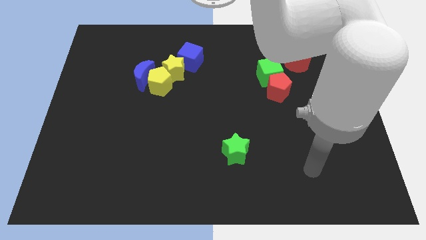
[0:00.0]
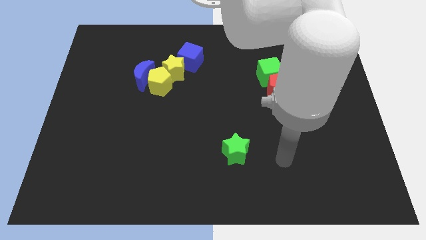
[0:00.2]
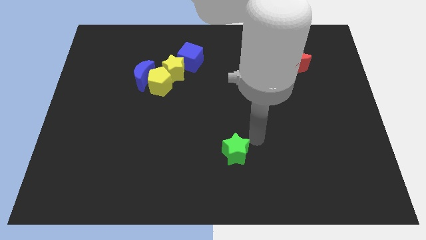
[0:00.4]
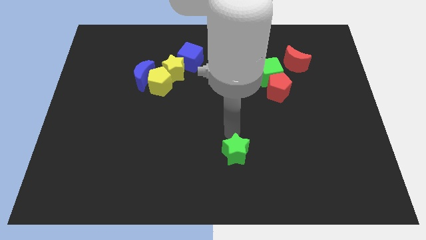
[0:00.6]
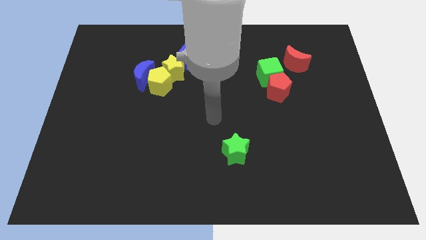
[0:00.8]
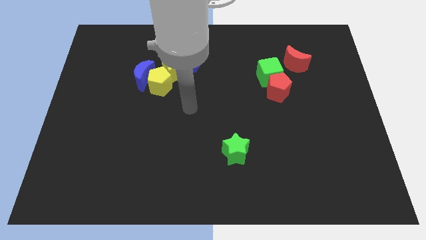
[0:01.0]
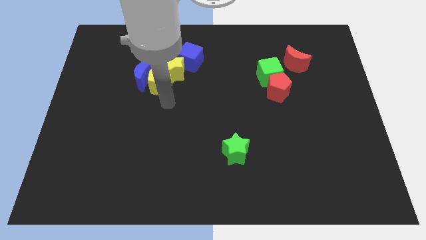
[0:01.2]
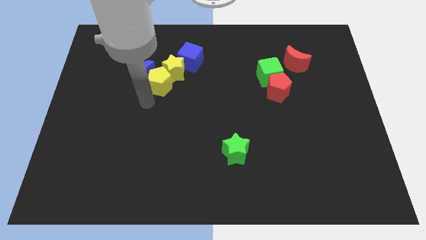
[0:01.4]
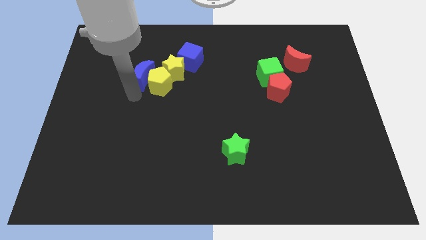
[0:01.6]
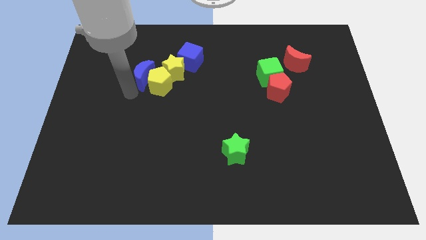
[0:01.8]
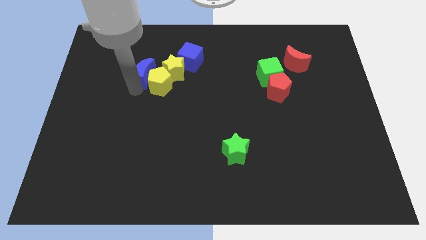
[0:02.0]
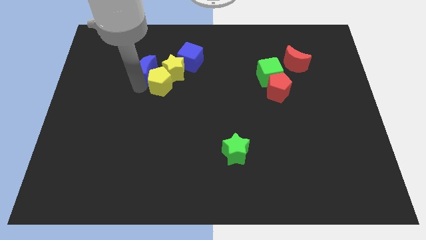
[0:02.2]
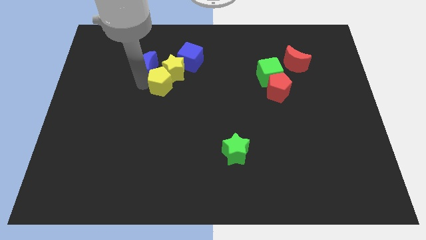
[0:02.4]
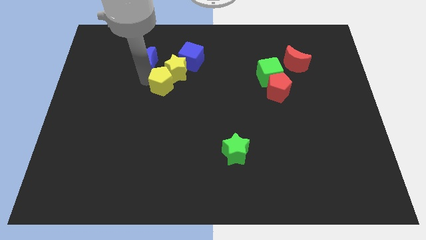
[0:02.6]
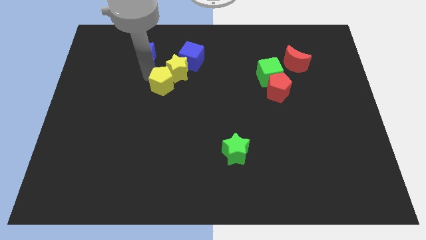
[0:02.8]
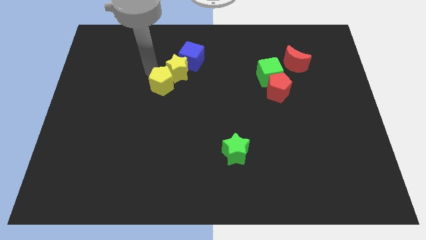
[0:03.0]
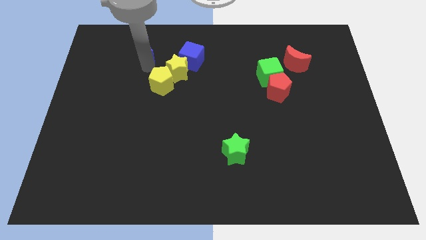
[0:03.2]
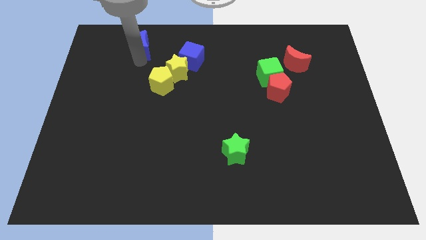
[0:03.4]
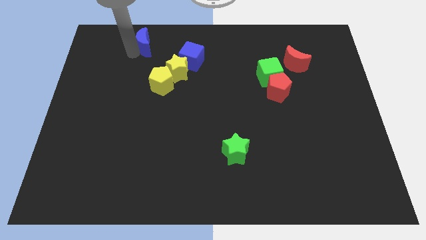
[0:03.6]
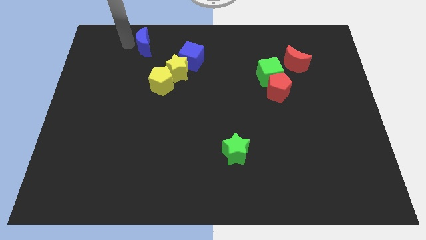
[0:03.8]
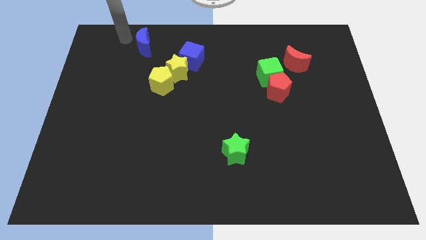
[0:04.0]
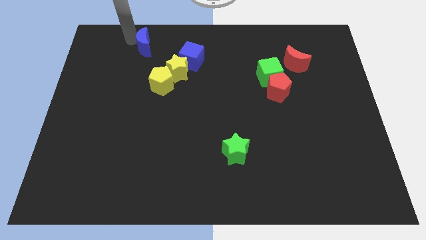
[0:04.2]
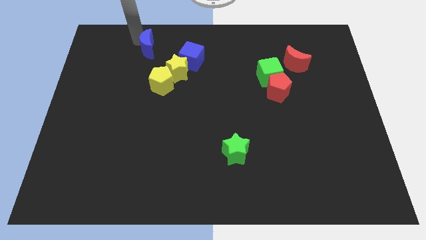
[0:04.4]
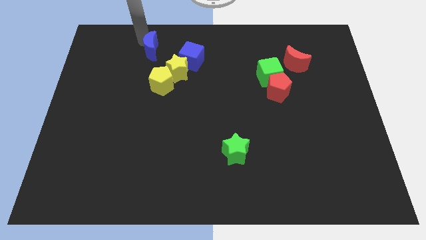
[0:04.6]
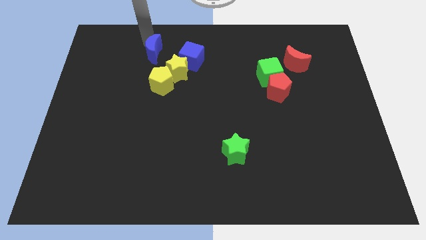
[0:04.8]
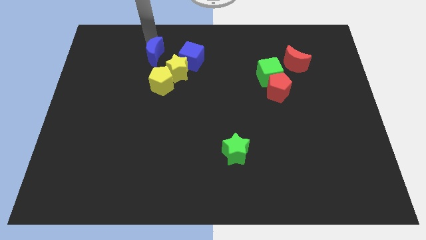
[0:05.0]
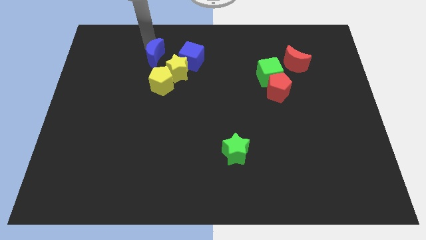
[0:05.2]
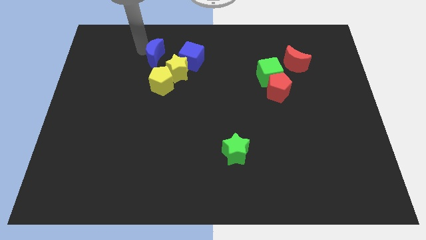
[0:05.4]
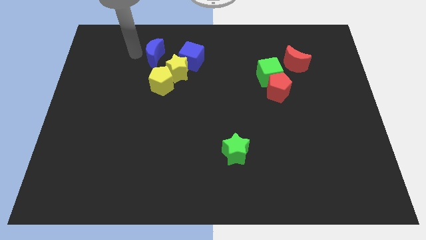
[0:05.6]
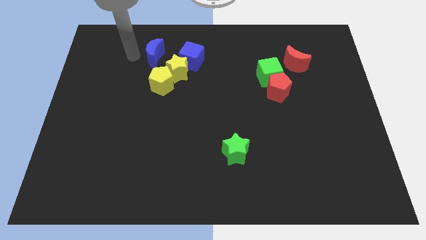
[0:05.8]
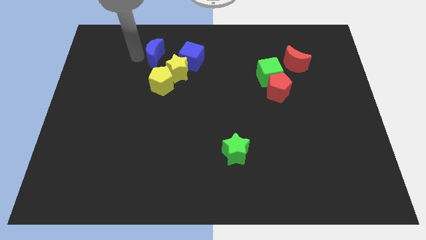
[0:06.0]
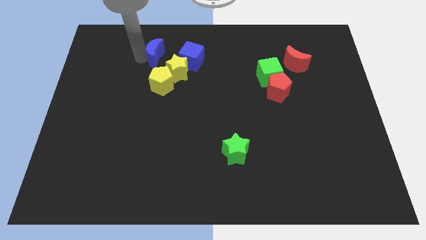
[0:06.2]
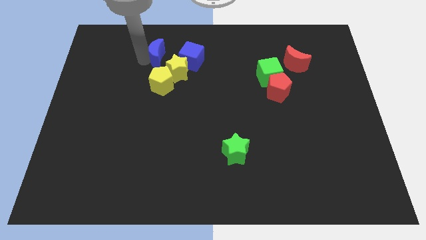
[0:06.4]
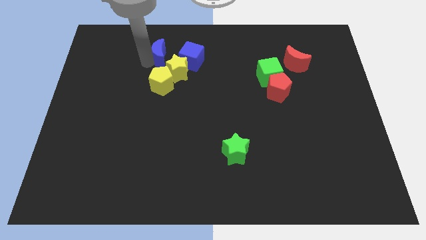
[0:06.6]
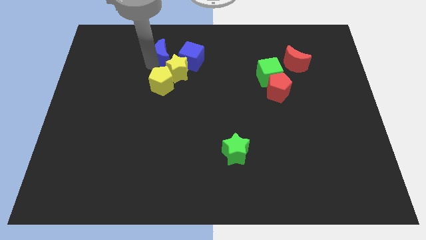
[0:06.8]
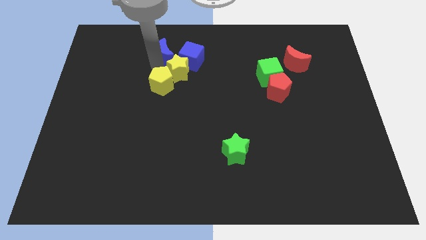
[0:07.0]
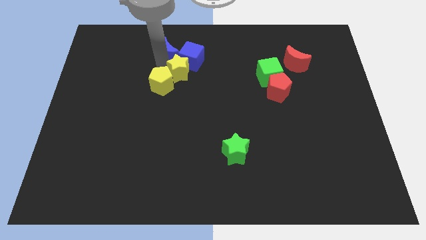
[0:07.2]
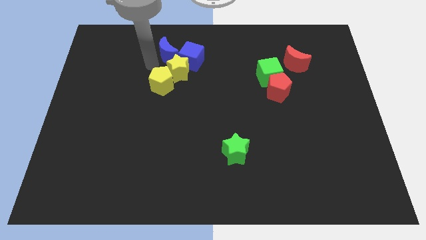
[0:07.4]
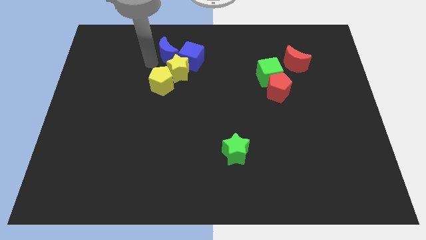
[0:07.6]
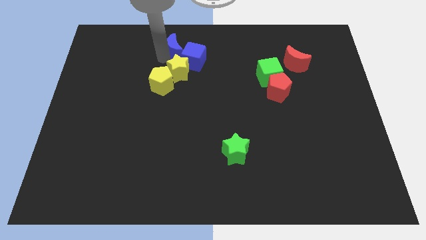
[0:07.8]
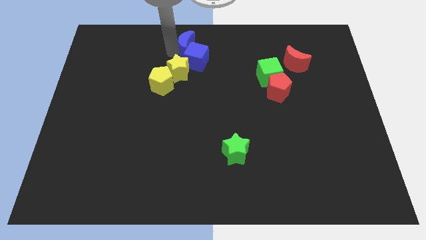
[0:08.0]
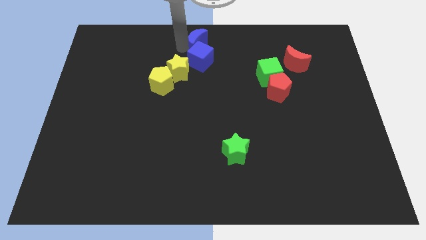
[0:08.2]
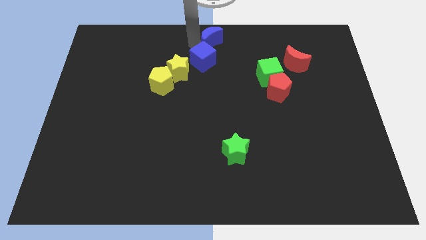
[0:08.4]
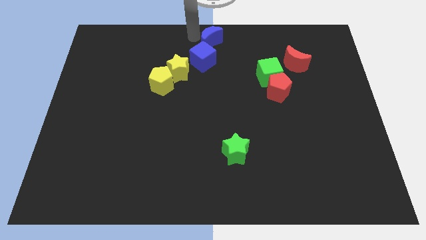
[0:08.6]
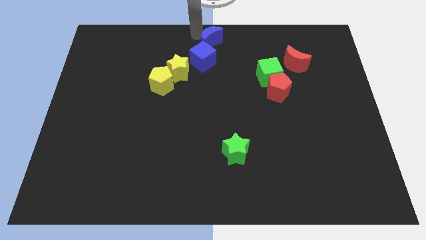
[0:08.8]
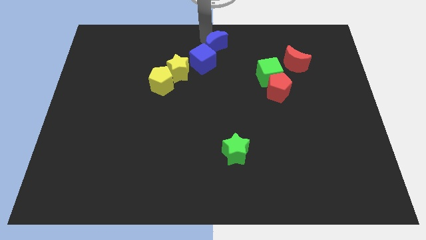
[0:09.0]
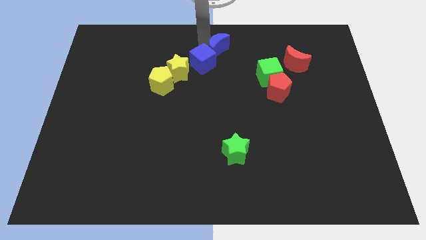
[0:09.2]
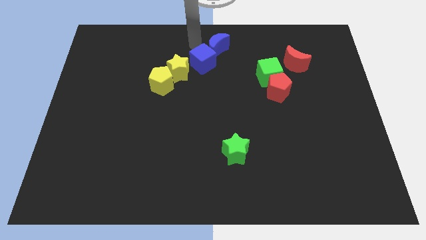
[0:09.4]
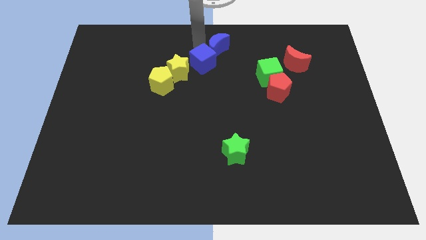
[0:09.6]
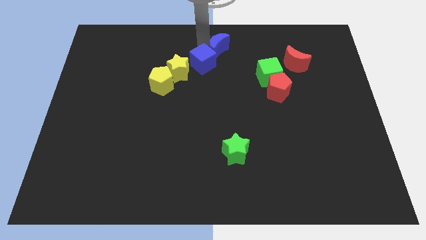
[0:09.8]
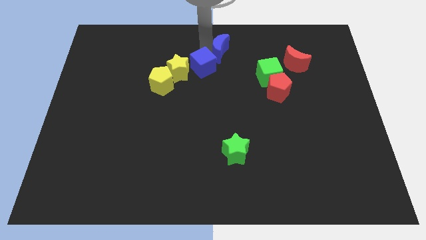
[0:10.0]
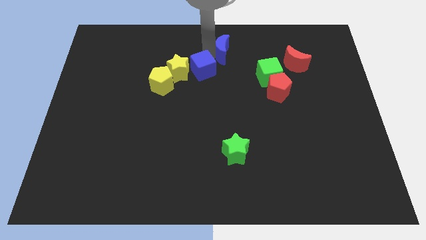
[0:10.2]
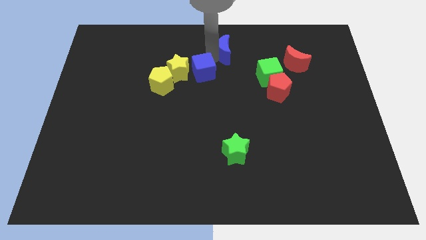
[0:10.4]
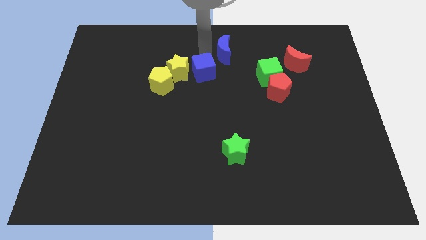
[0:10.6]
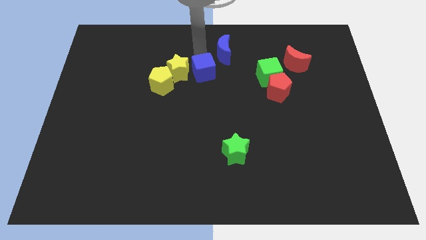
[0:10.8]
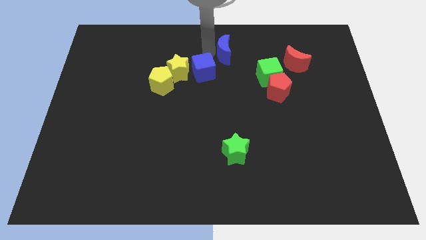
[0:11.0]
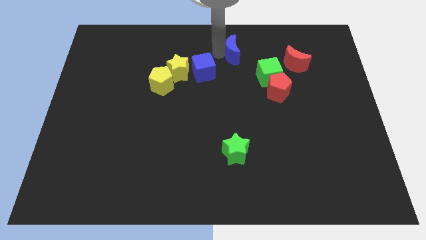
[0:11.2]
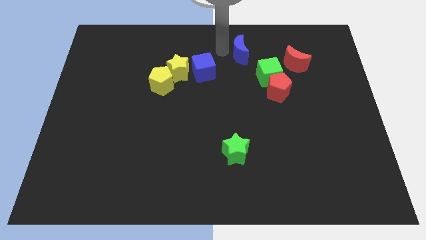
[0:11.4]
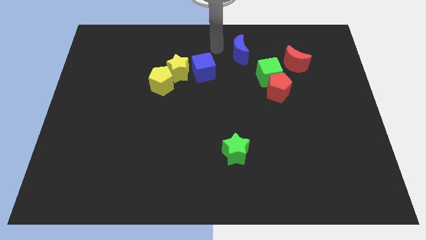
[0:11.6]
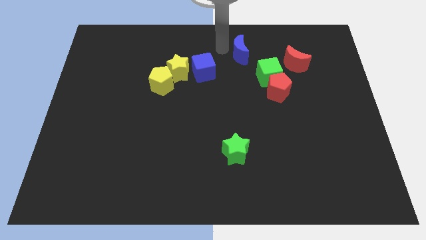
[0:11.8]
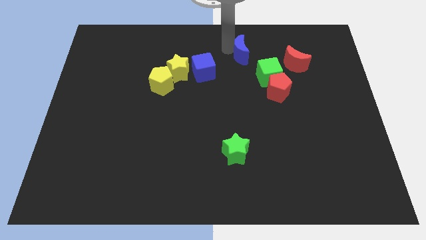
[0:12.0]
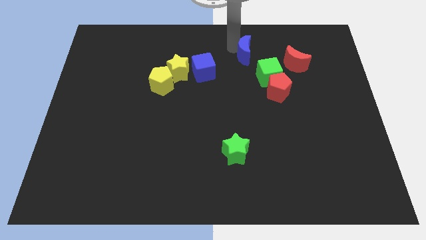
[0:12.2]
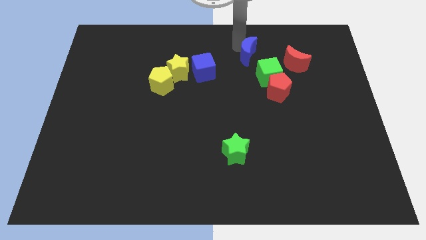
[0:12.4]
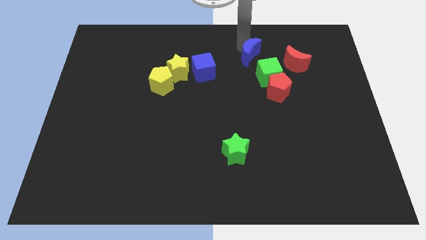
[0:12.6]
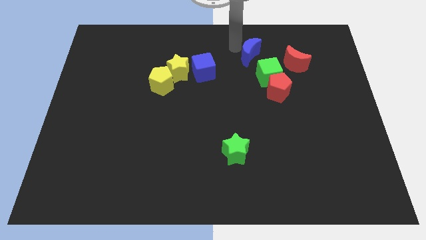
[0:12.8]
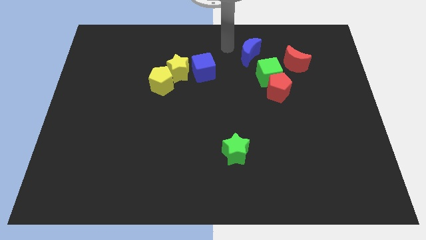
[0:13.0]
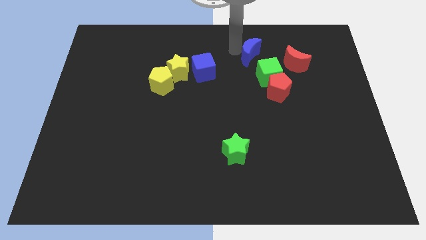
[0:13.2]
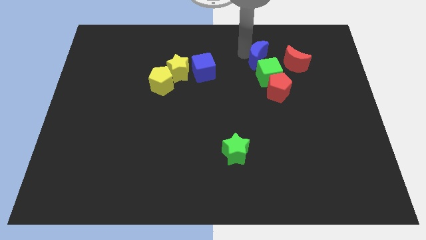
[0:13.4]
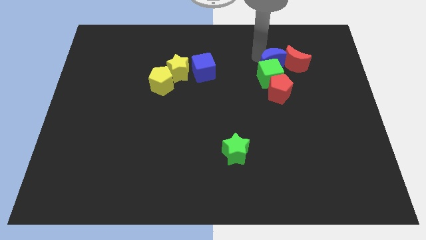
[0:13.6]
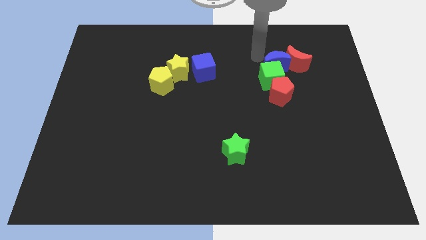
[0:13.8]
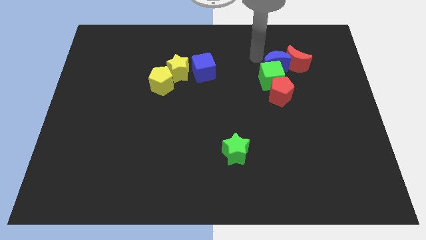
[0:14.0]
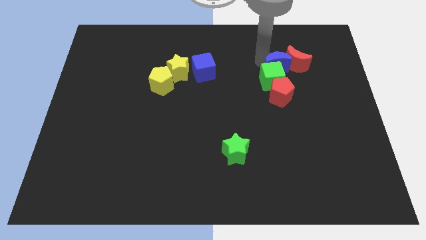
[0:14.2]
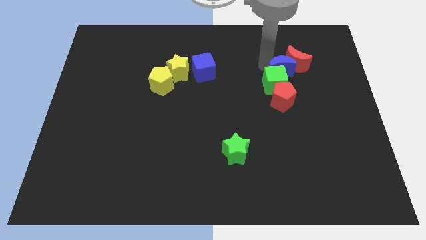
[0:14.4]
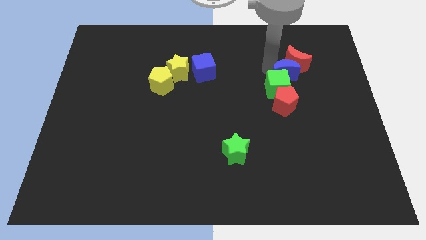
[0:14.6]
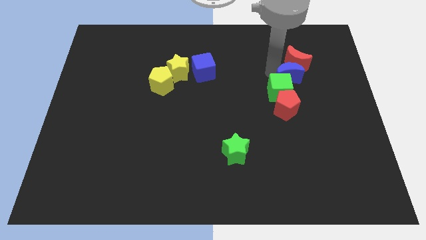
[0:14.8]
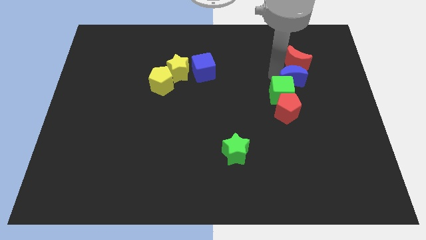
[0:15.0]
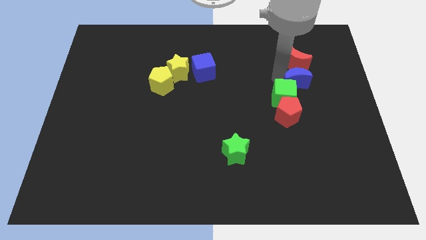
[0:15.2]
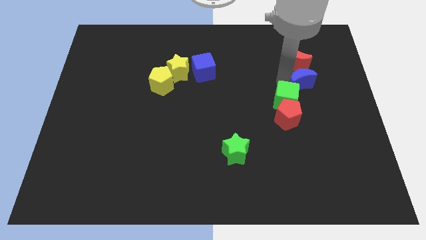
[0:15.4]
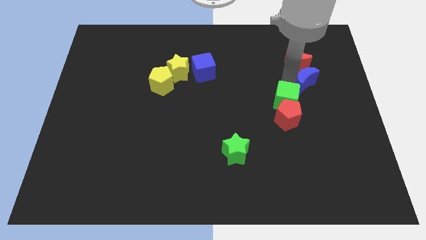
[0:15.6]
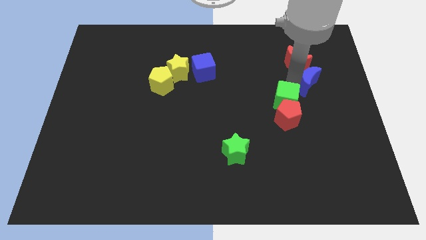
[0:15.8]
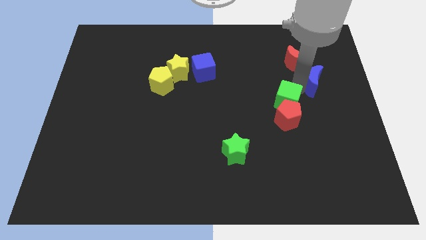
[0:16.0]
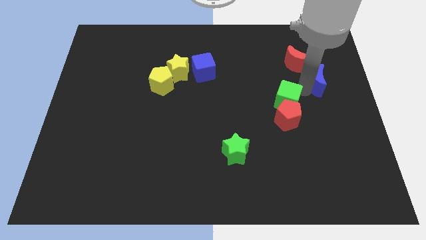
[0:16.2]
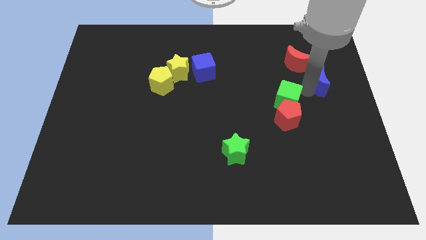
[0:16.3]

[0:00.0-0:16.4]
move the blue moon to the right side of the board
